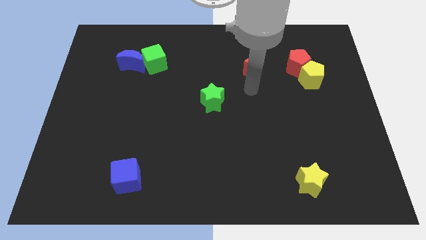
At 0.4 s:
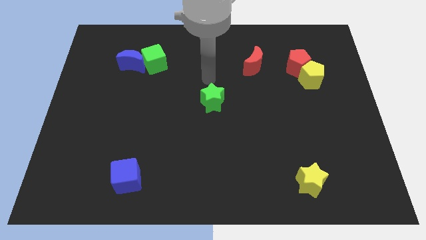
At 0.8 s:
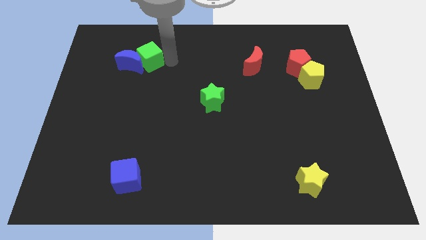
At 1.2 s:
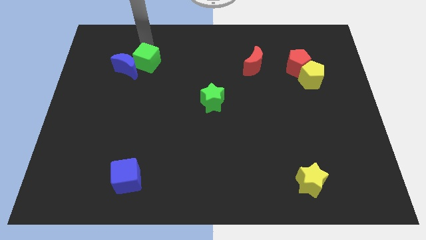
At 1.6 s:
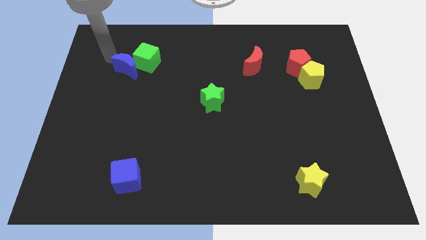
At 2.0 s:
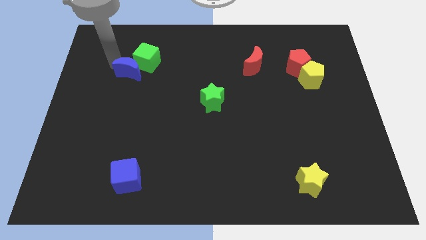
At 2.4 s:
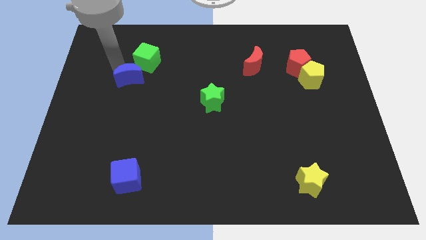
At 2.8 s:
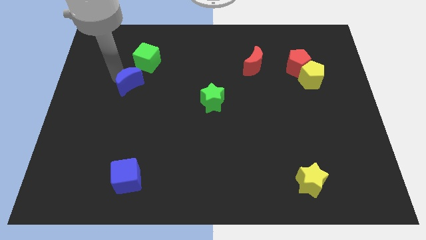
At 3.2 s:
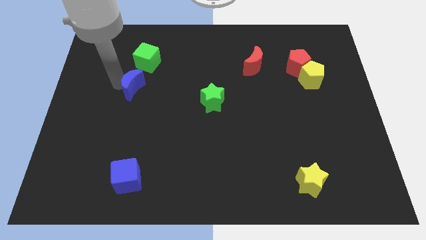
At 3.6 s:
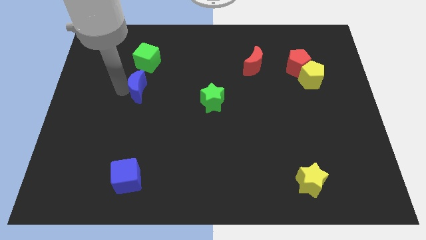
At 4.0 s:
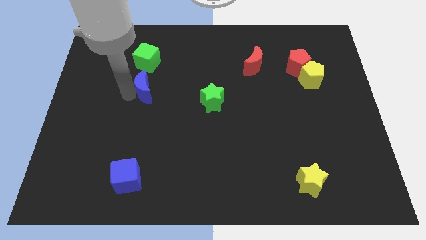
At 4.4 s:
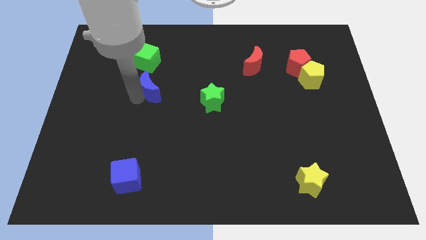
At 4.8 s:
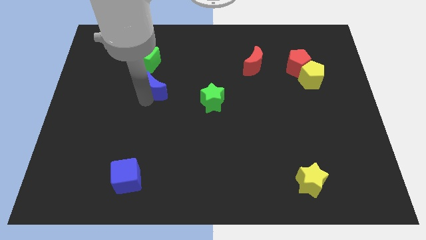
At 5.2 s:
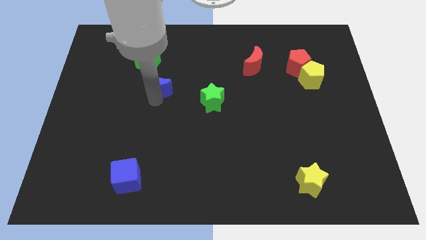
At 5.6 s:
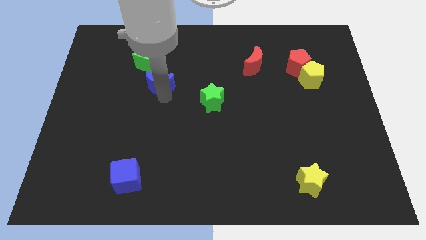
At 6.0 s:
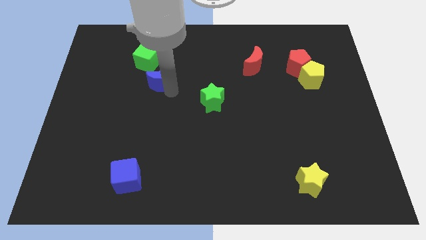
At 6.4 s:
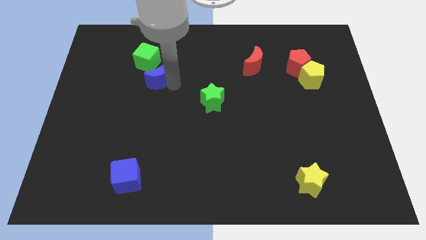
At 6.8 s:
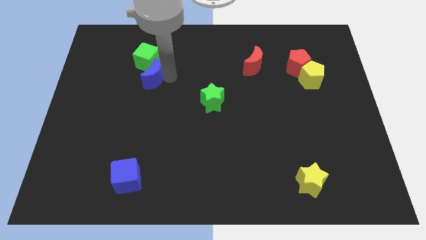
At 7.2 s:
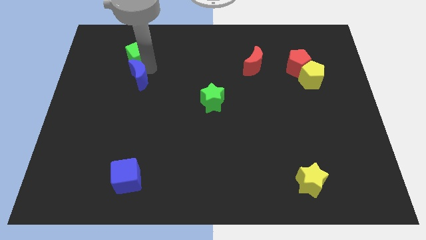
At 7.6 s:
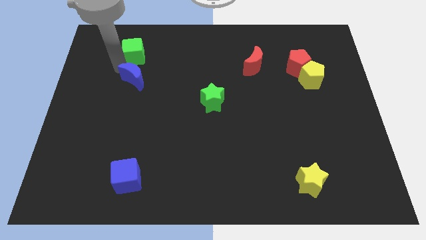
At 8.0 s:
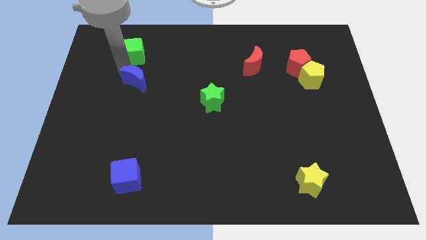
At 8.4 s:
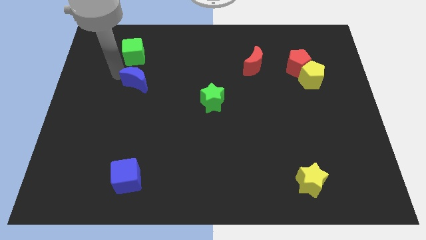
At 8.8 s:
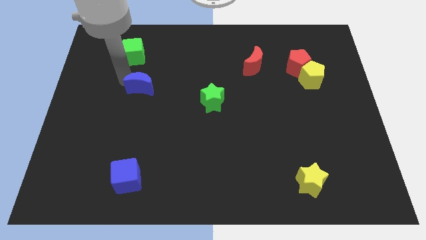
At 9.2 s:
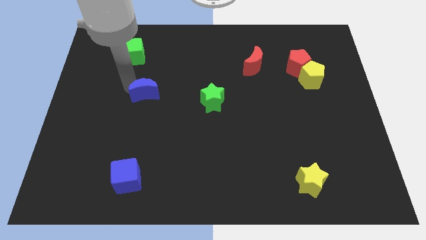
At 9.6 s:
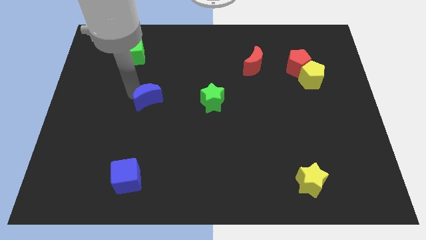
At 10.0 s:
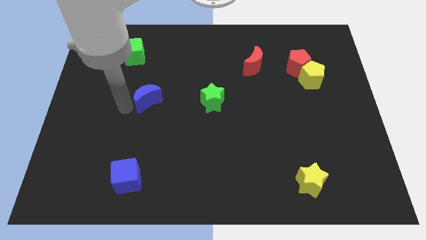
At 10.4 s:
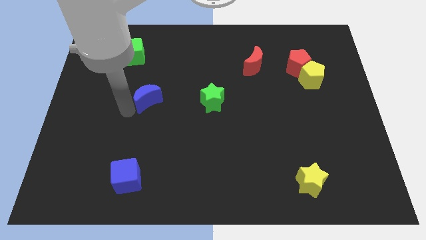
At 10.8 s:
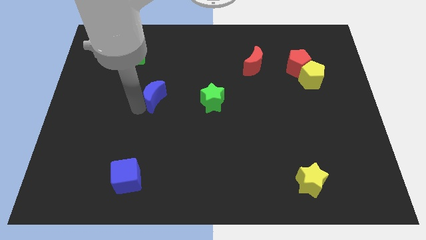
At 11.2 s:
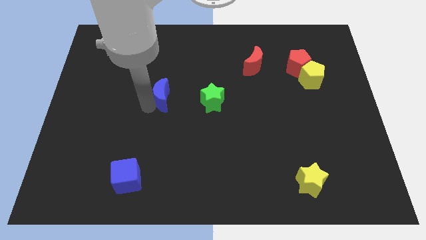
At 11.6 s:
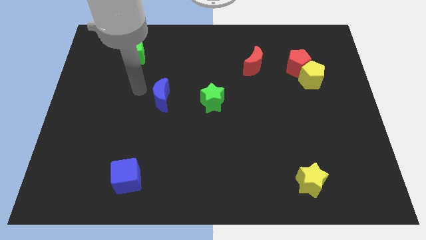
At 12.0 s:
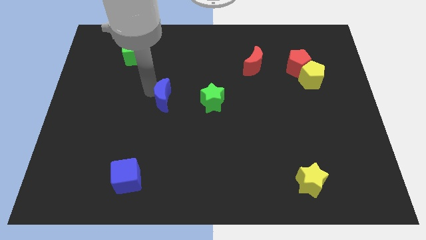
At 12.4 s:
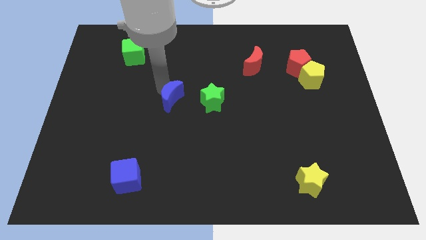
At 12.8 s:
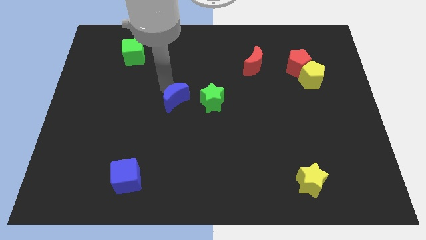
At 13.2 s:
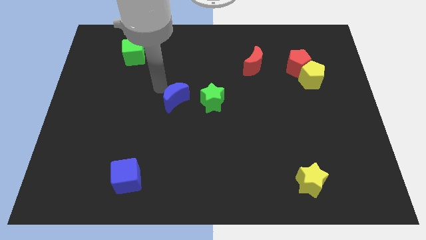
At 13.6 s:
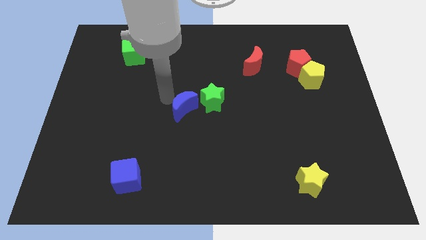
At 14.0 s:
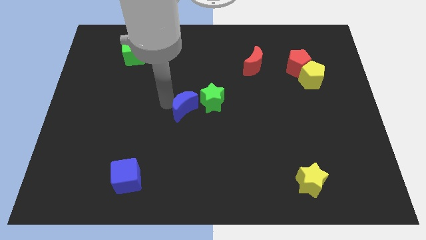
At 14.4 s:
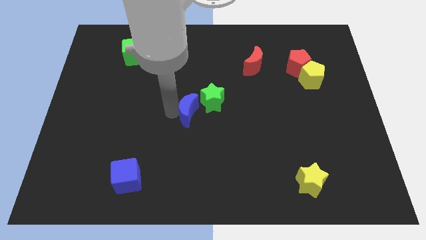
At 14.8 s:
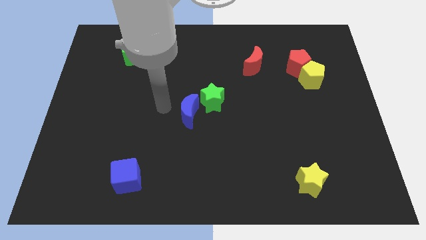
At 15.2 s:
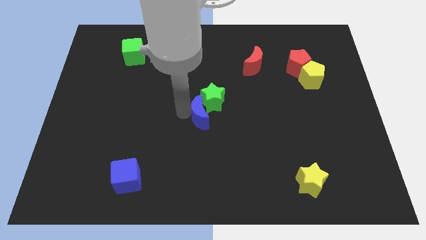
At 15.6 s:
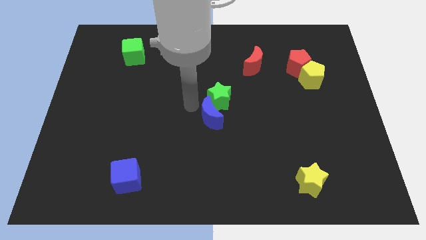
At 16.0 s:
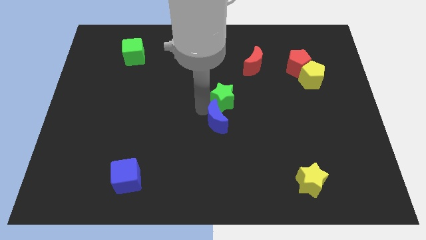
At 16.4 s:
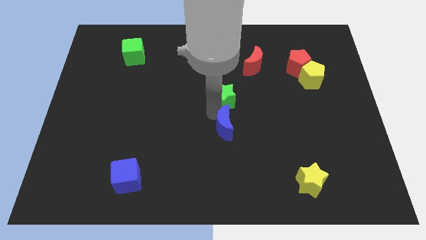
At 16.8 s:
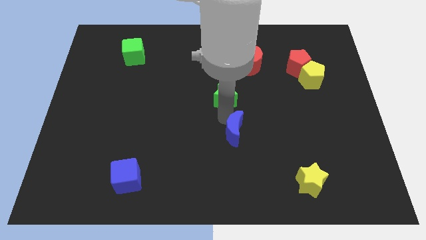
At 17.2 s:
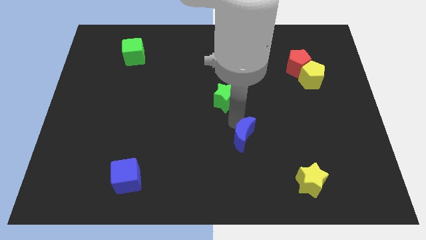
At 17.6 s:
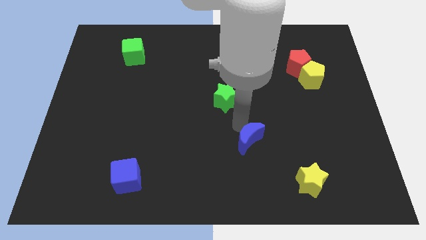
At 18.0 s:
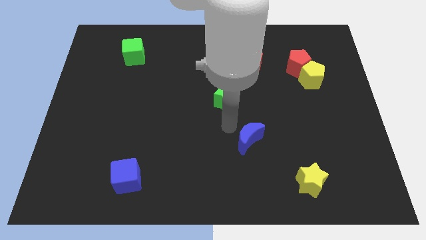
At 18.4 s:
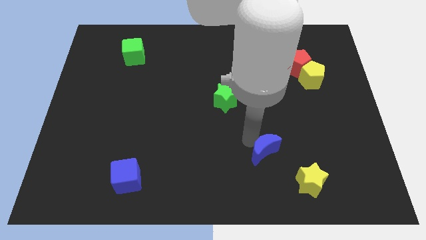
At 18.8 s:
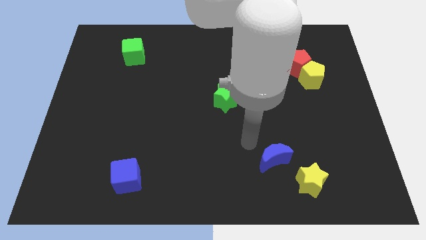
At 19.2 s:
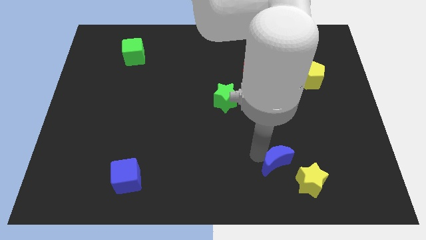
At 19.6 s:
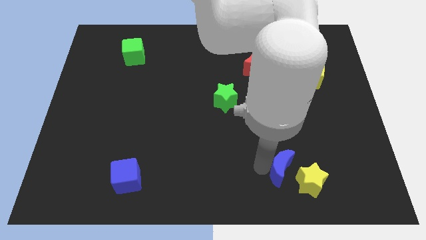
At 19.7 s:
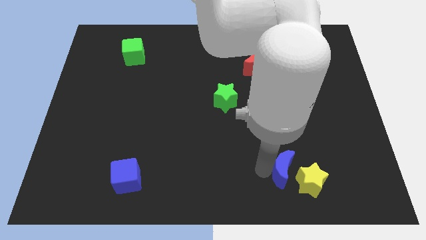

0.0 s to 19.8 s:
slide the blue moon to the yellow star

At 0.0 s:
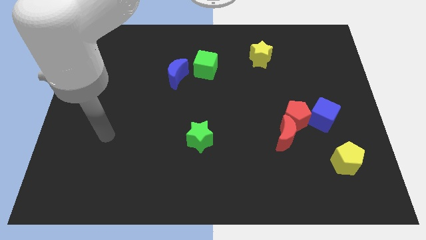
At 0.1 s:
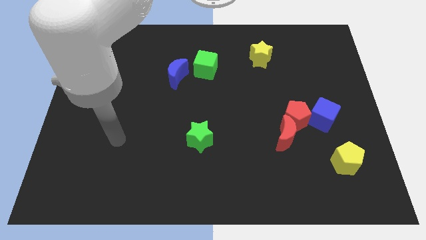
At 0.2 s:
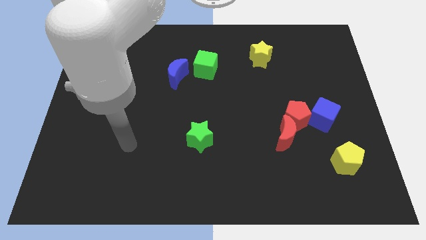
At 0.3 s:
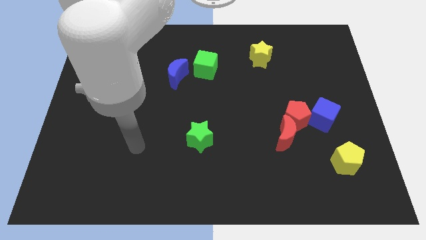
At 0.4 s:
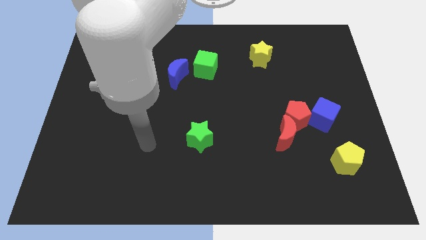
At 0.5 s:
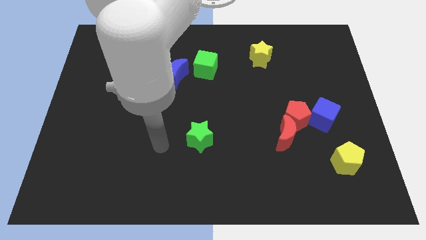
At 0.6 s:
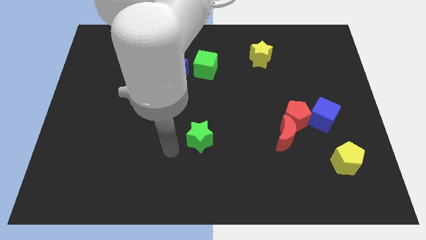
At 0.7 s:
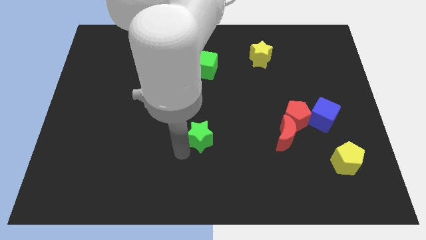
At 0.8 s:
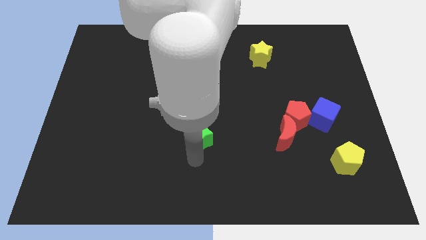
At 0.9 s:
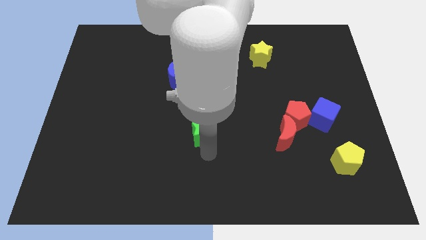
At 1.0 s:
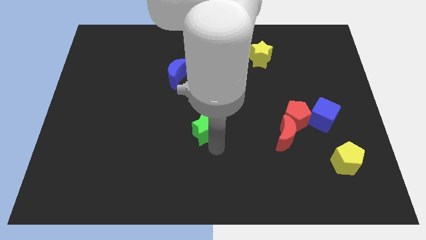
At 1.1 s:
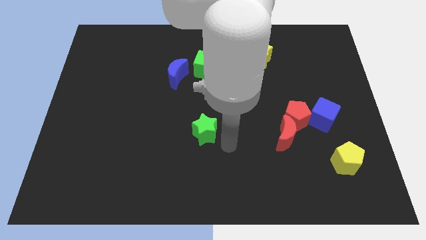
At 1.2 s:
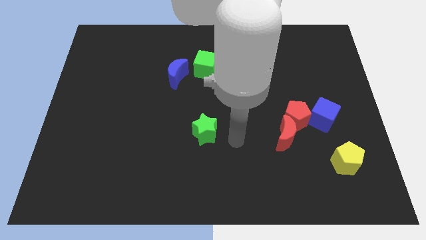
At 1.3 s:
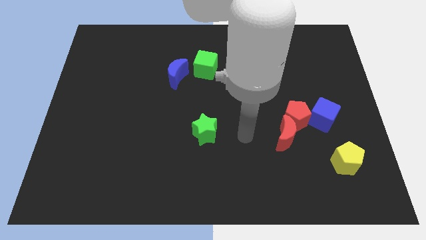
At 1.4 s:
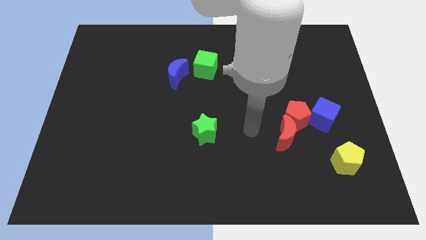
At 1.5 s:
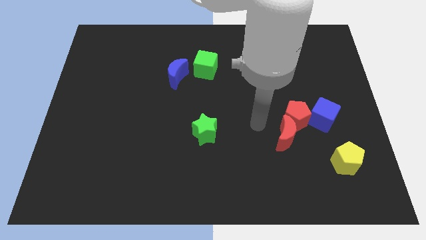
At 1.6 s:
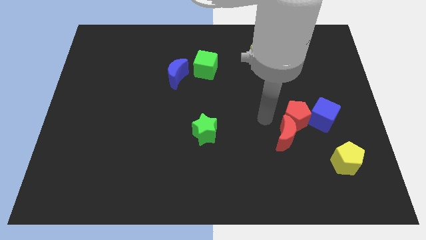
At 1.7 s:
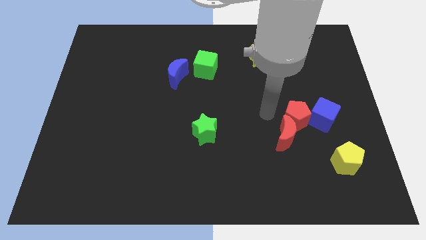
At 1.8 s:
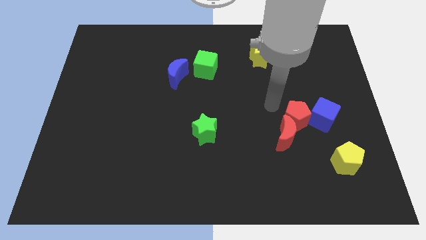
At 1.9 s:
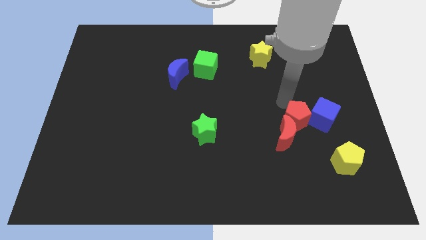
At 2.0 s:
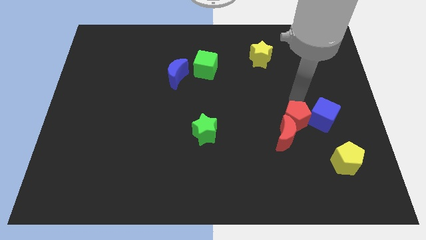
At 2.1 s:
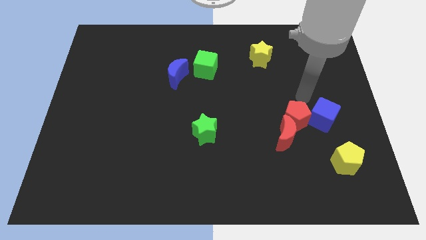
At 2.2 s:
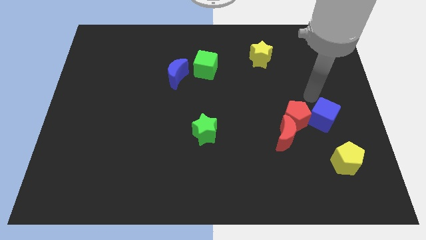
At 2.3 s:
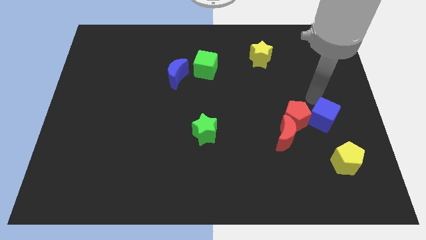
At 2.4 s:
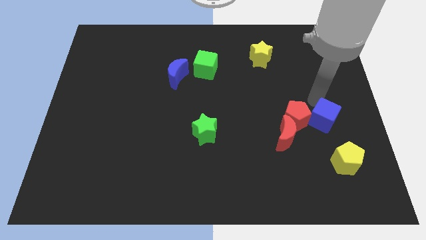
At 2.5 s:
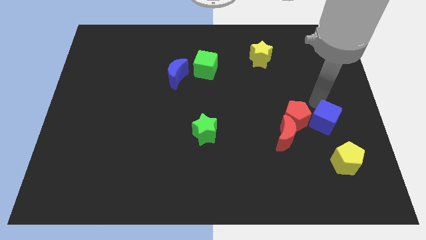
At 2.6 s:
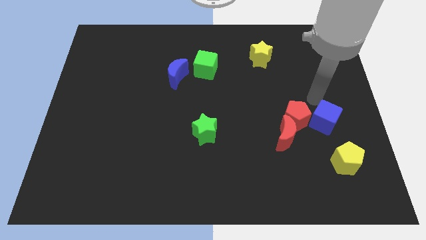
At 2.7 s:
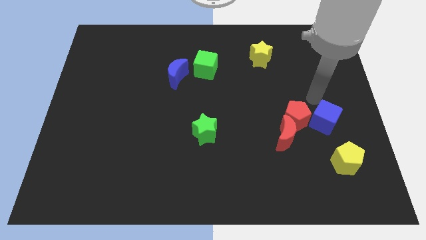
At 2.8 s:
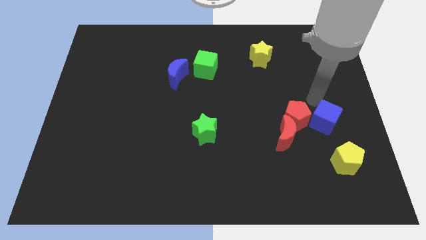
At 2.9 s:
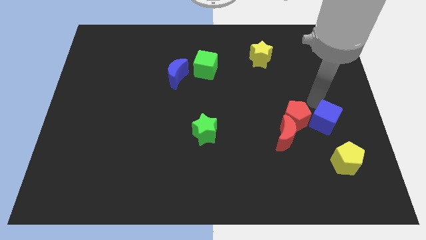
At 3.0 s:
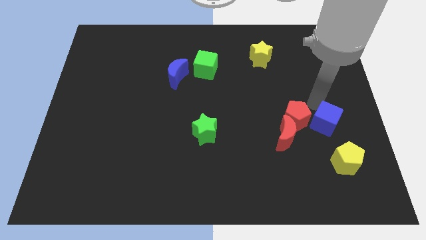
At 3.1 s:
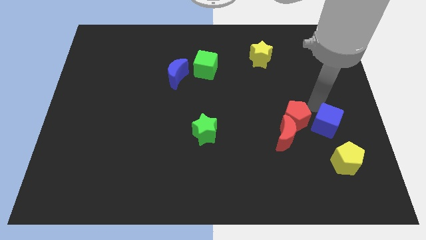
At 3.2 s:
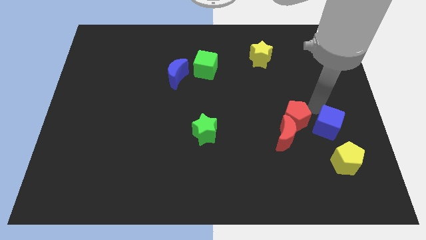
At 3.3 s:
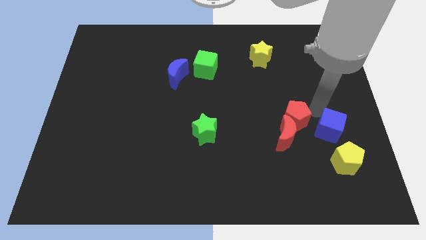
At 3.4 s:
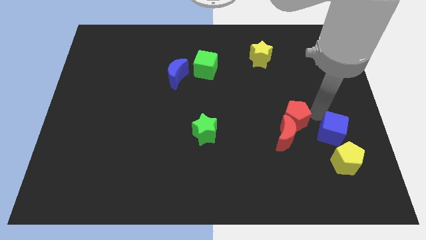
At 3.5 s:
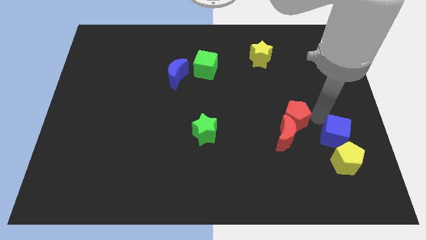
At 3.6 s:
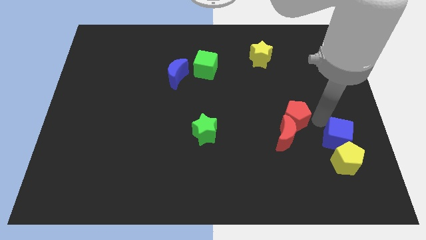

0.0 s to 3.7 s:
move the blue cube towards the yellow pentagon
